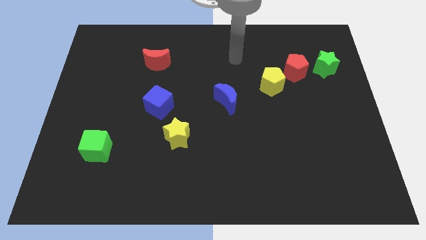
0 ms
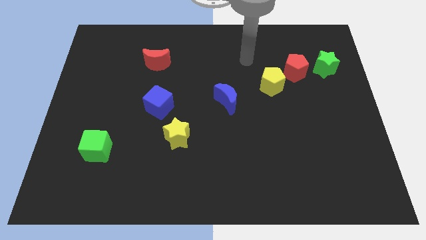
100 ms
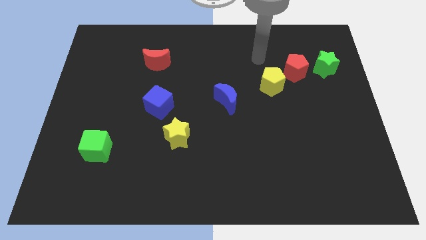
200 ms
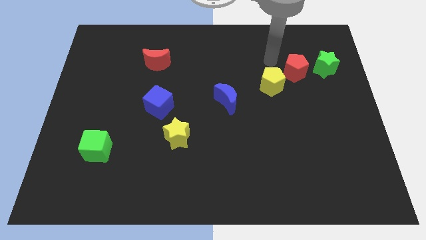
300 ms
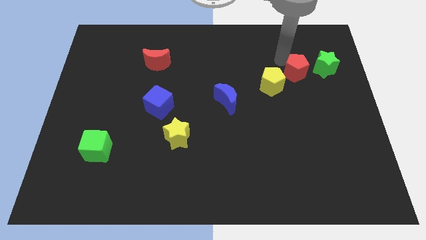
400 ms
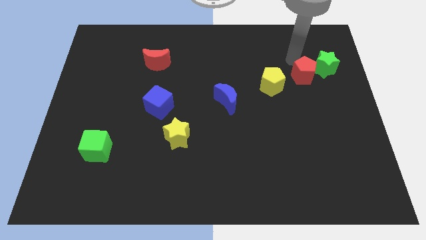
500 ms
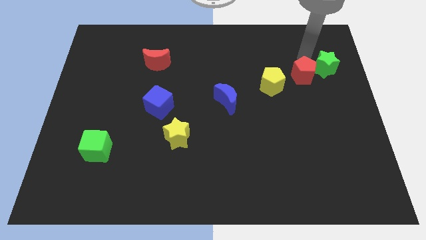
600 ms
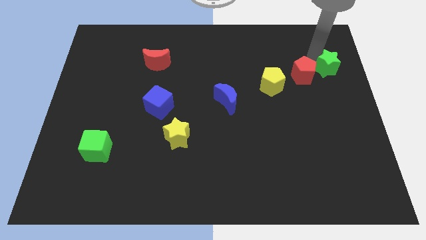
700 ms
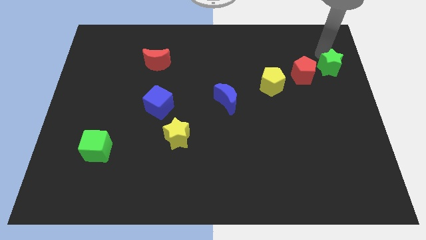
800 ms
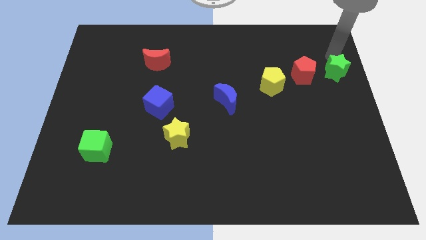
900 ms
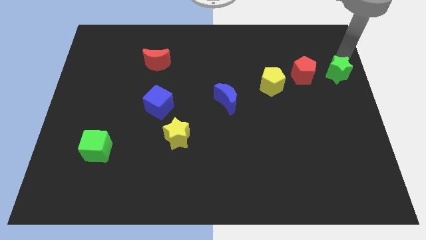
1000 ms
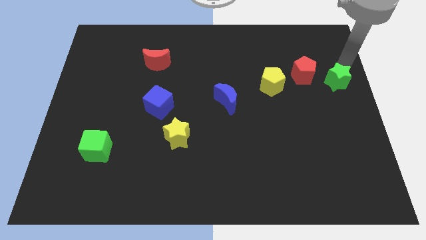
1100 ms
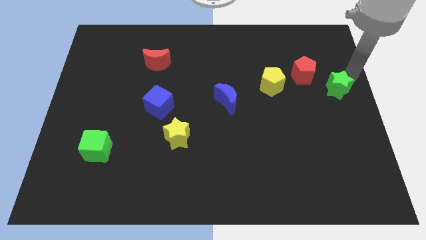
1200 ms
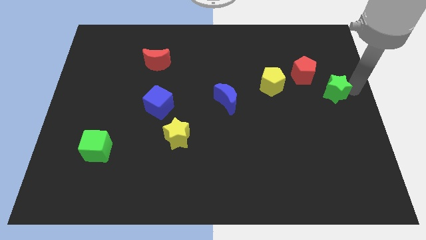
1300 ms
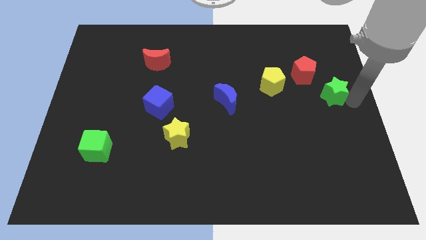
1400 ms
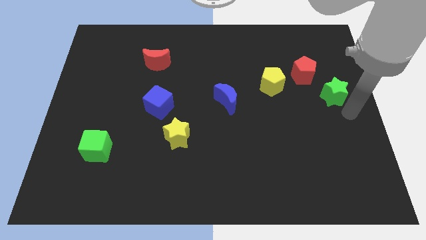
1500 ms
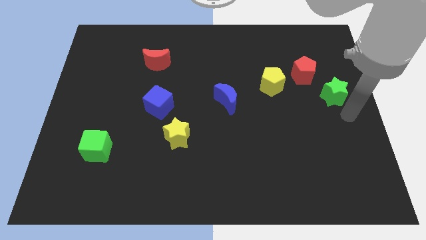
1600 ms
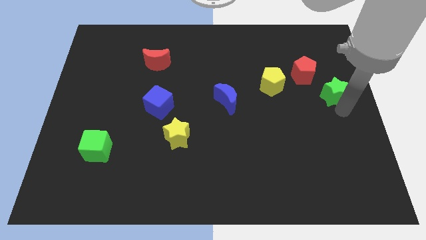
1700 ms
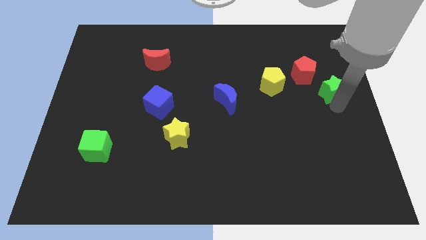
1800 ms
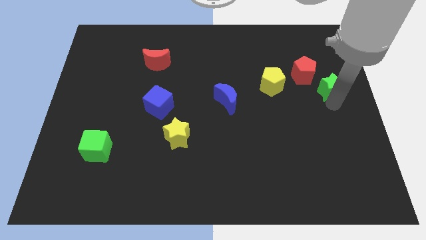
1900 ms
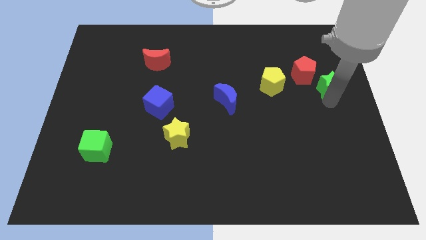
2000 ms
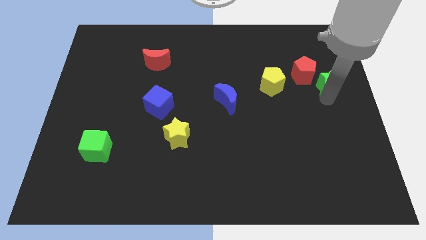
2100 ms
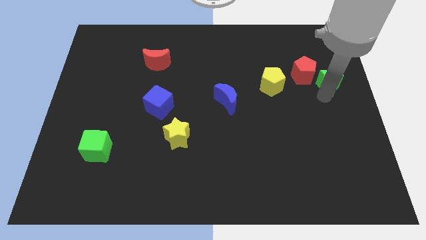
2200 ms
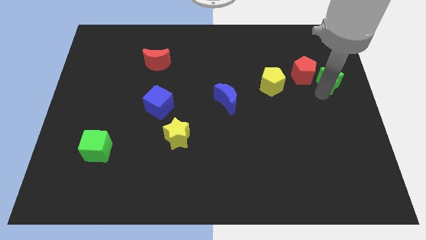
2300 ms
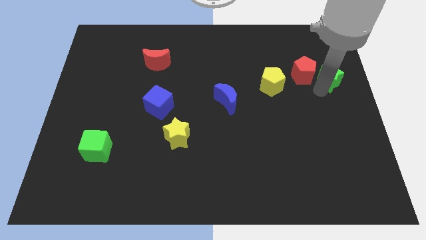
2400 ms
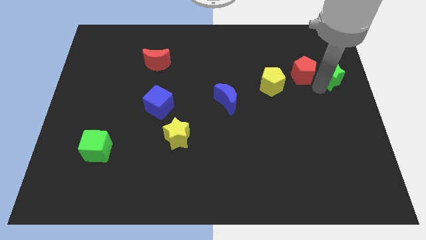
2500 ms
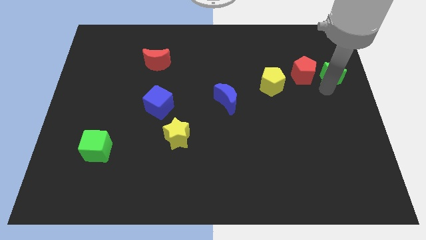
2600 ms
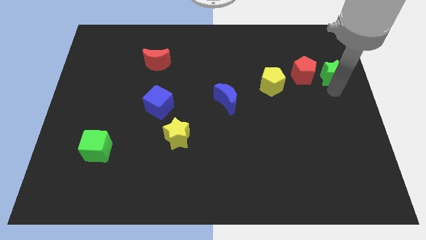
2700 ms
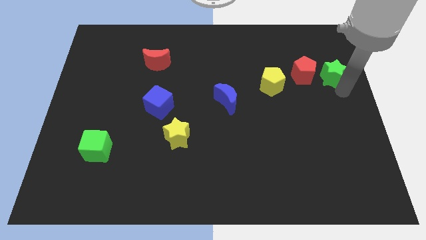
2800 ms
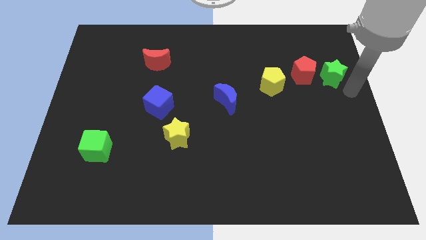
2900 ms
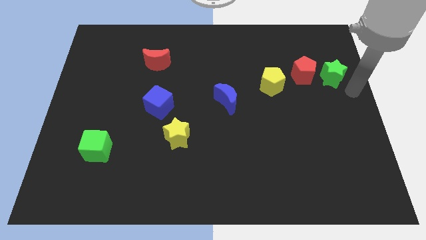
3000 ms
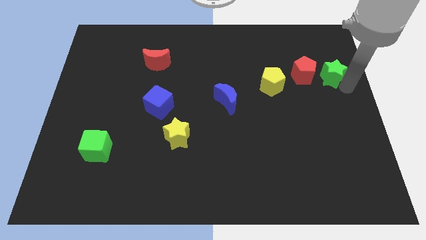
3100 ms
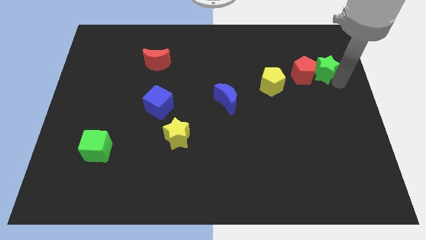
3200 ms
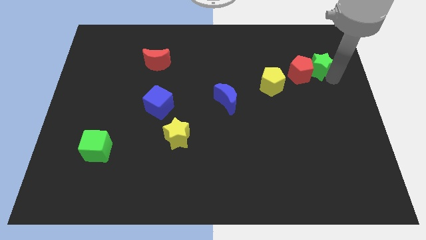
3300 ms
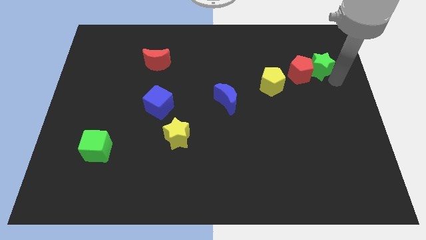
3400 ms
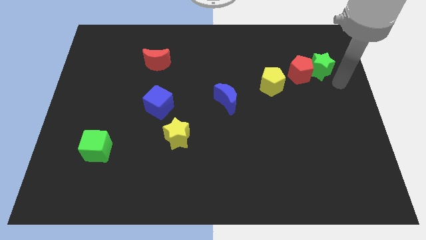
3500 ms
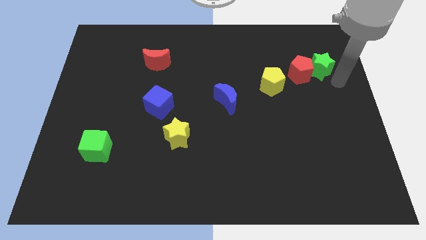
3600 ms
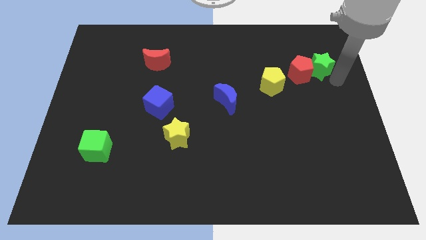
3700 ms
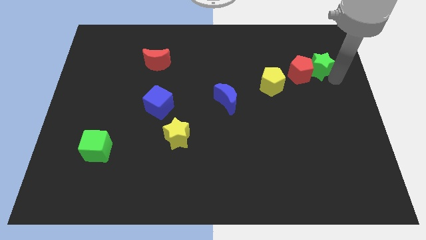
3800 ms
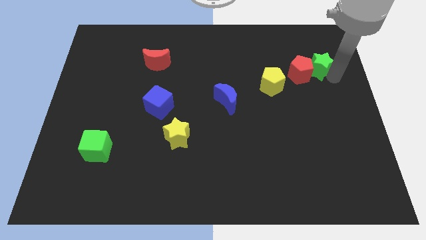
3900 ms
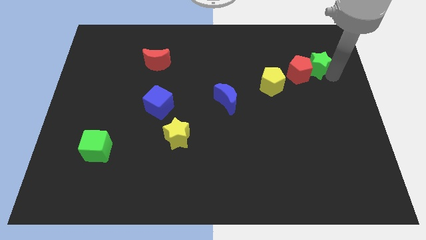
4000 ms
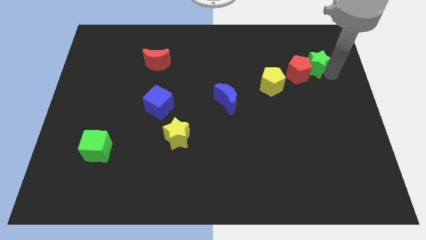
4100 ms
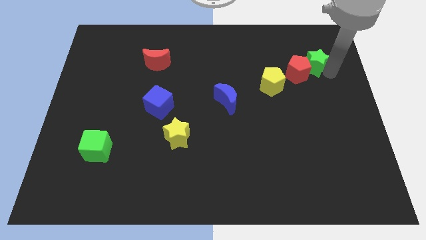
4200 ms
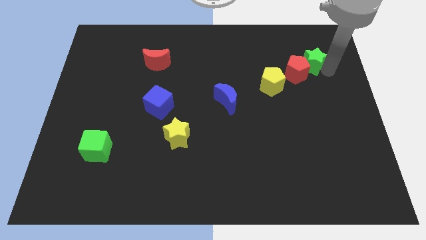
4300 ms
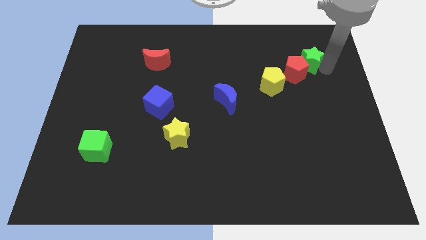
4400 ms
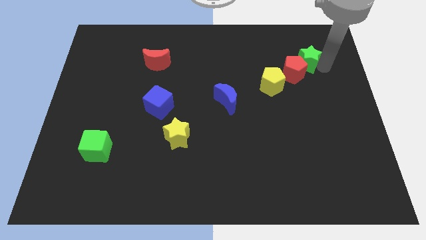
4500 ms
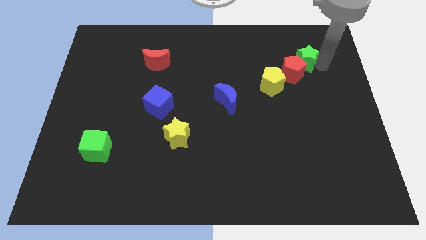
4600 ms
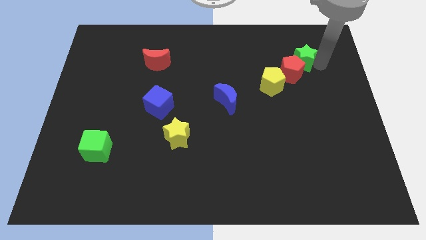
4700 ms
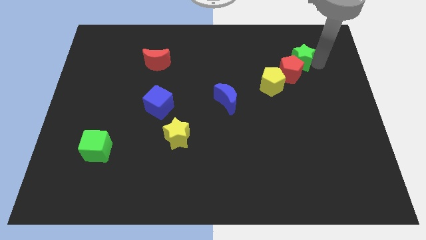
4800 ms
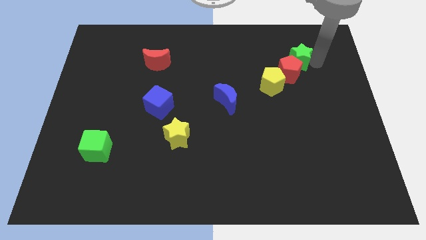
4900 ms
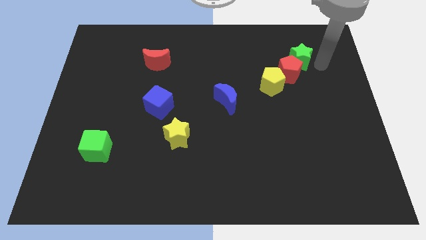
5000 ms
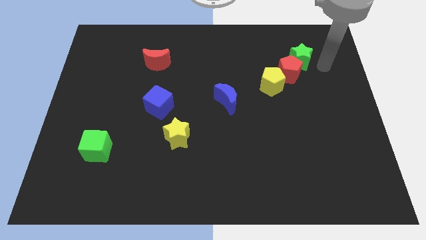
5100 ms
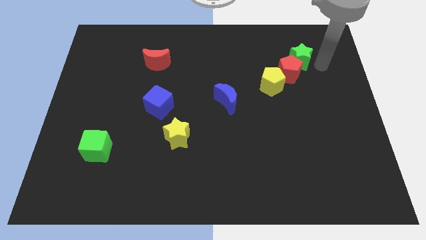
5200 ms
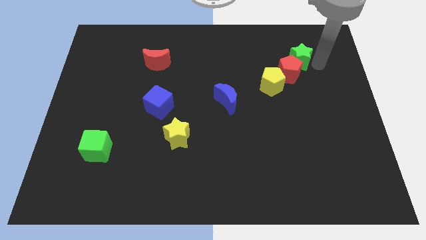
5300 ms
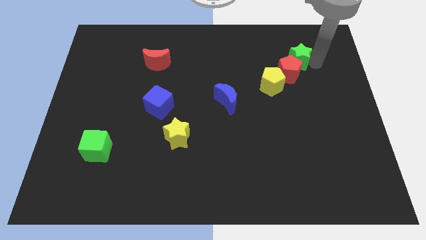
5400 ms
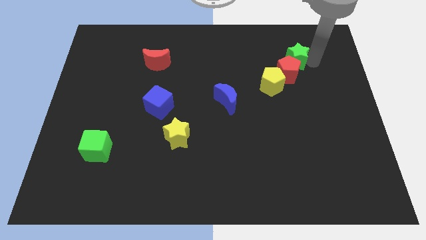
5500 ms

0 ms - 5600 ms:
slide the green star slightly to the left

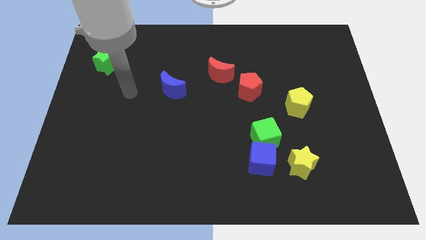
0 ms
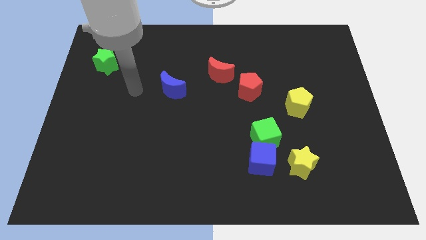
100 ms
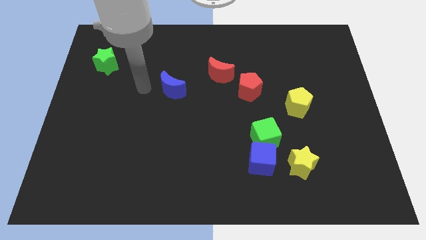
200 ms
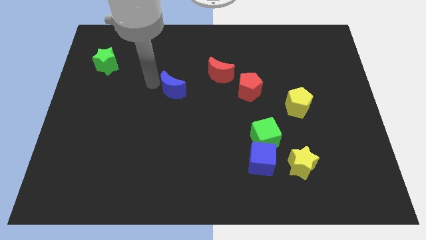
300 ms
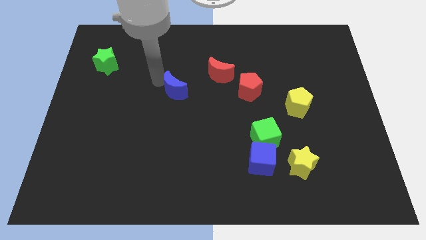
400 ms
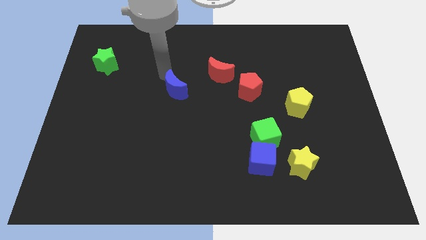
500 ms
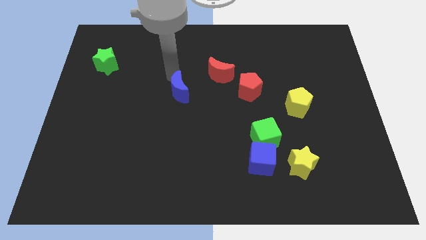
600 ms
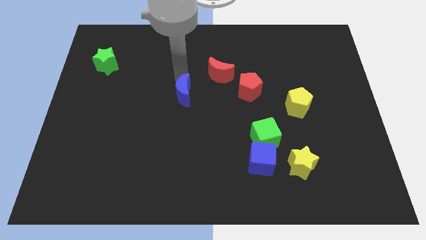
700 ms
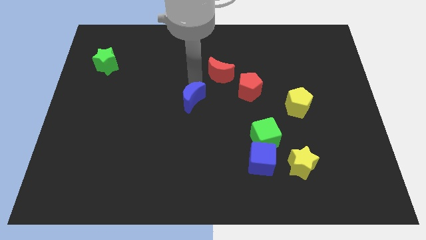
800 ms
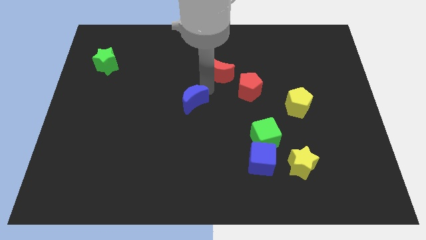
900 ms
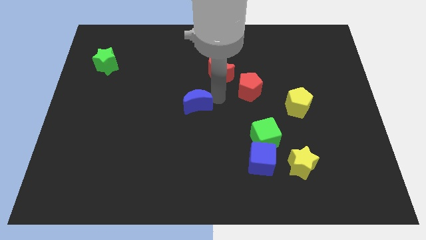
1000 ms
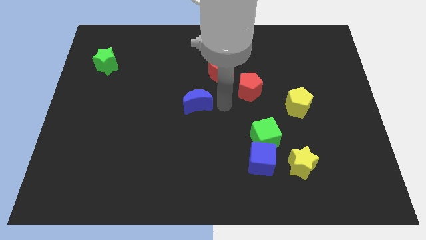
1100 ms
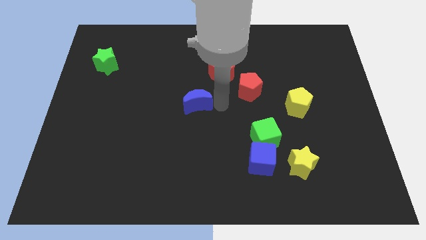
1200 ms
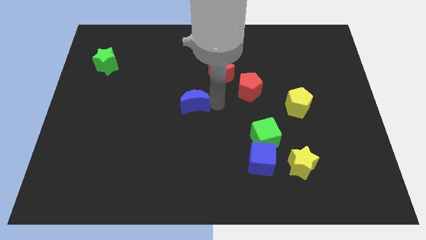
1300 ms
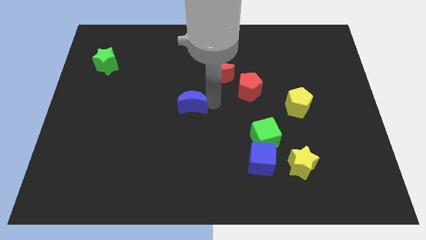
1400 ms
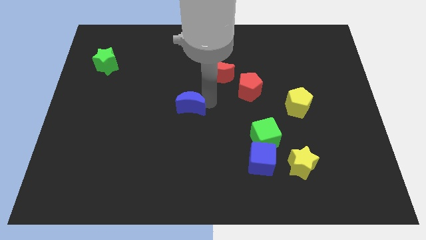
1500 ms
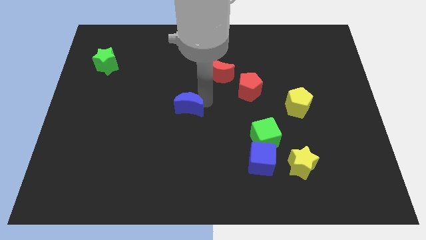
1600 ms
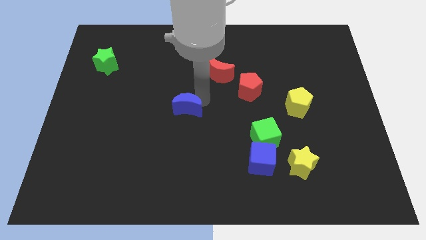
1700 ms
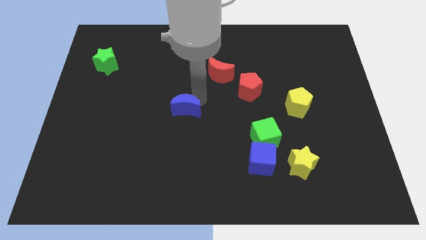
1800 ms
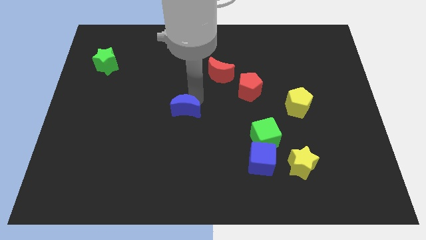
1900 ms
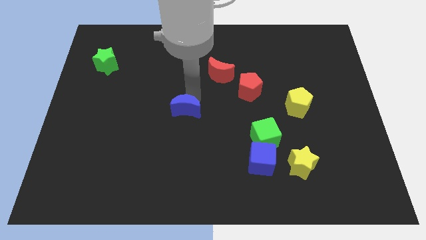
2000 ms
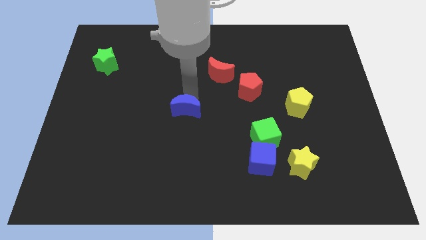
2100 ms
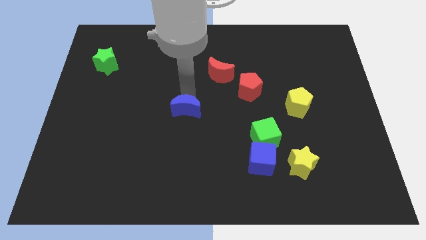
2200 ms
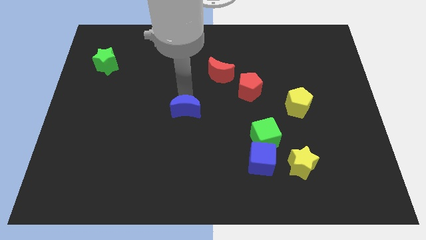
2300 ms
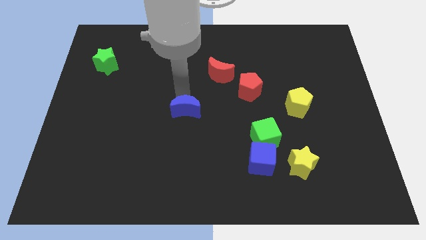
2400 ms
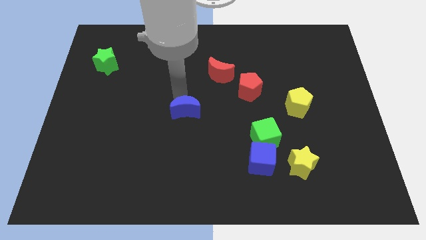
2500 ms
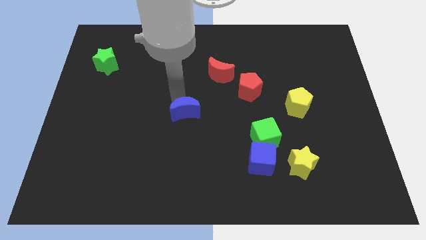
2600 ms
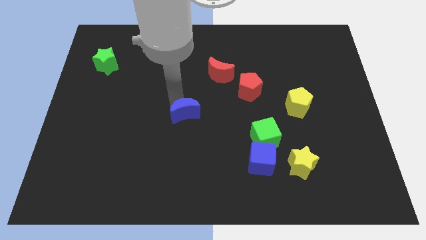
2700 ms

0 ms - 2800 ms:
slightly push the blue moon down
